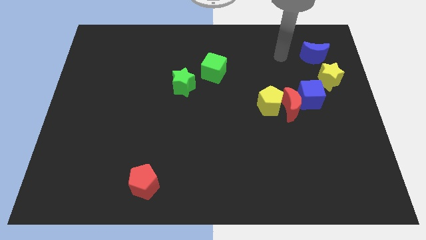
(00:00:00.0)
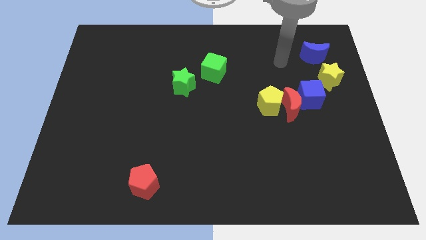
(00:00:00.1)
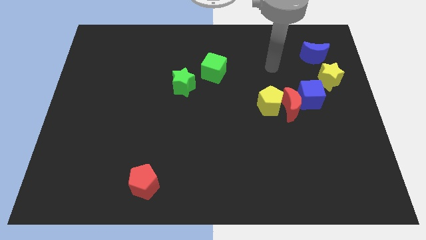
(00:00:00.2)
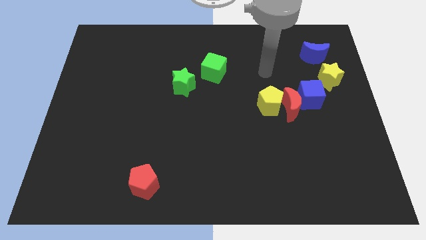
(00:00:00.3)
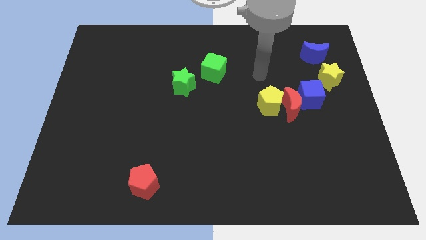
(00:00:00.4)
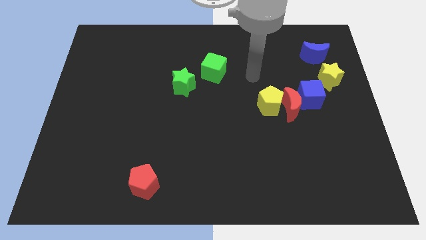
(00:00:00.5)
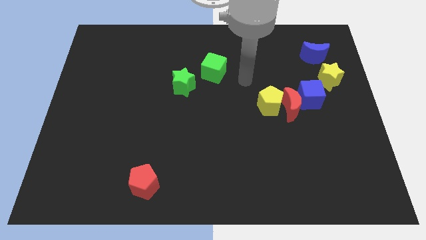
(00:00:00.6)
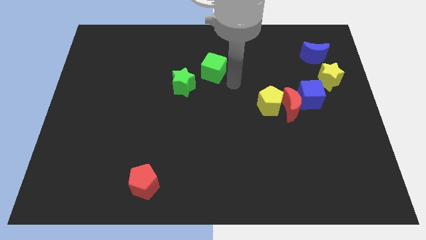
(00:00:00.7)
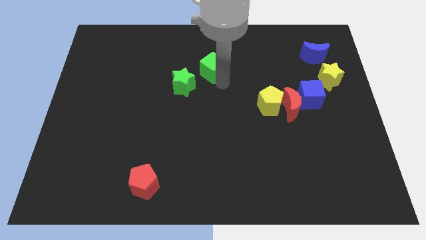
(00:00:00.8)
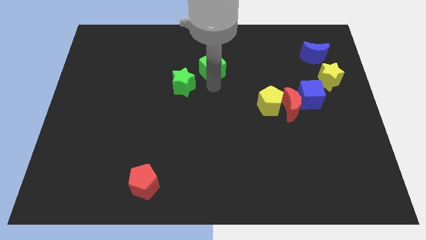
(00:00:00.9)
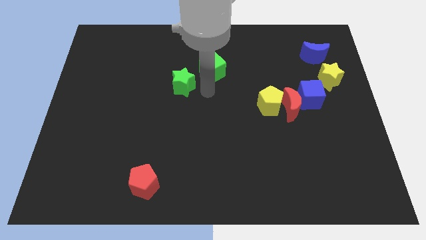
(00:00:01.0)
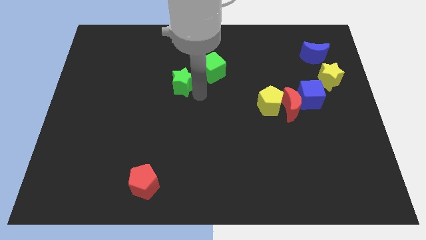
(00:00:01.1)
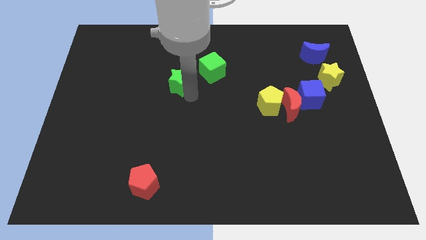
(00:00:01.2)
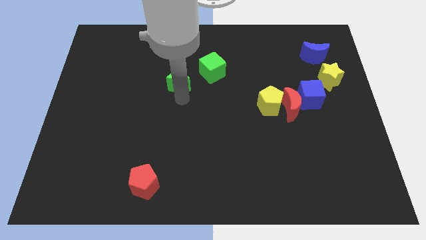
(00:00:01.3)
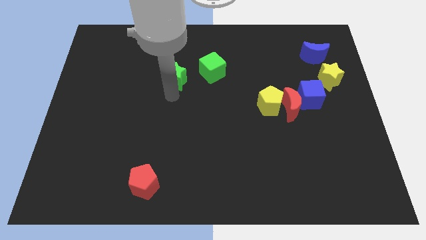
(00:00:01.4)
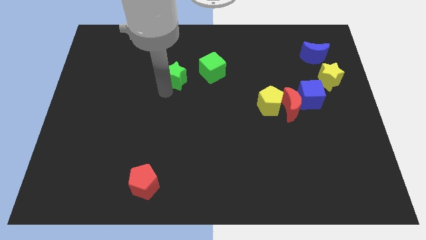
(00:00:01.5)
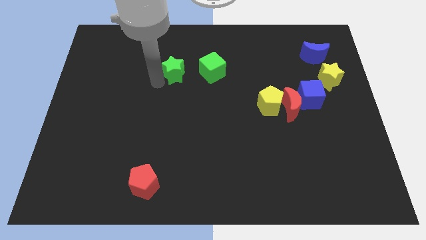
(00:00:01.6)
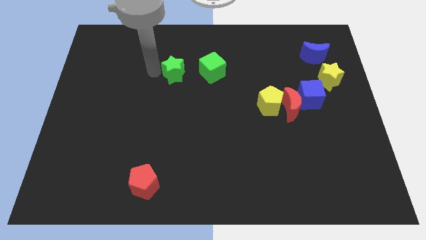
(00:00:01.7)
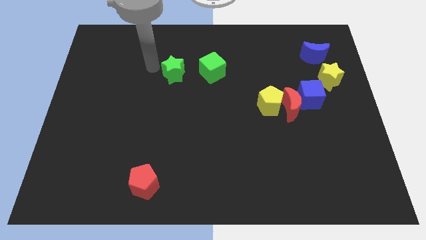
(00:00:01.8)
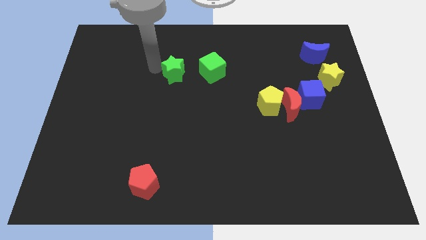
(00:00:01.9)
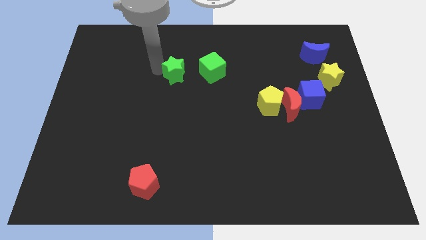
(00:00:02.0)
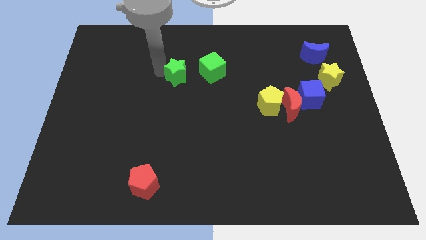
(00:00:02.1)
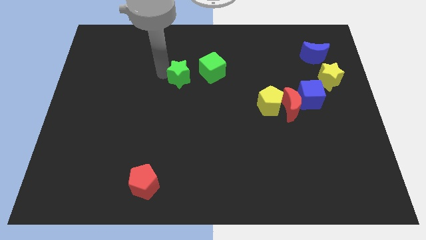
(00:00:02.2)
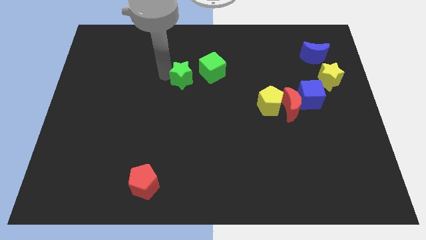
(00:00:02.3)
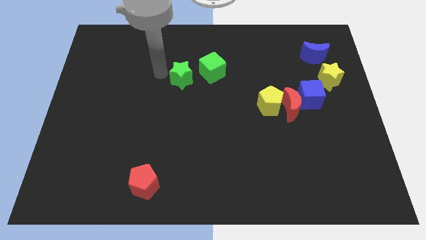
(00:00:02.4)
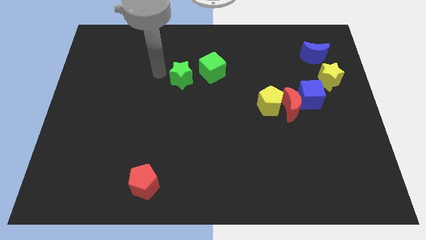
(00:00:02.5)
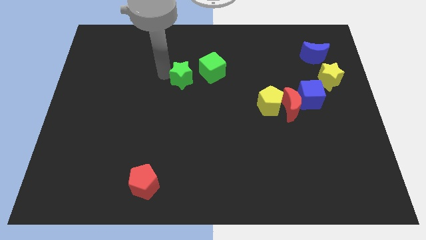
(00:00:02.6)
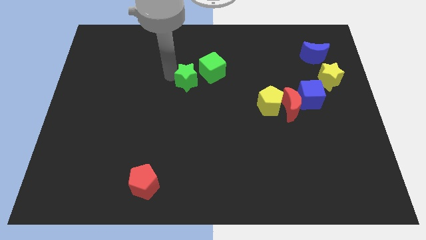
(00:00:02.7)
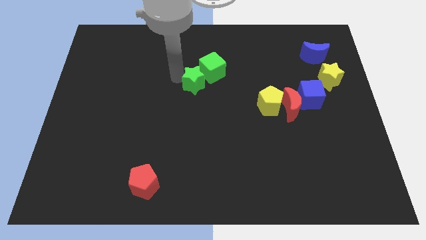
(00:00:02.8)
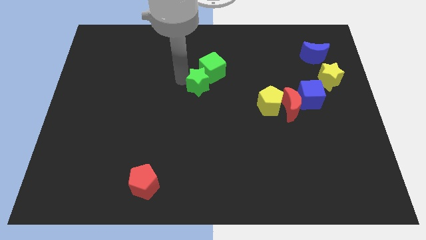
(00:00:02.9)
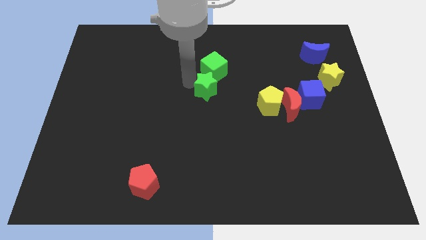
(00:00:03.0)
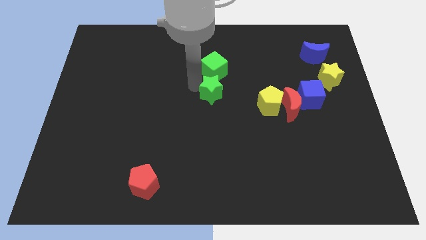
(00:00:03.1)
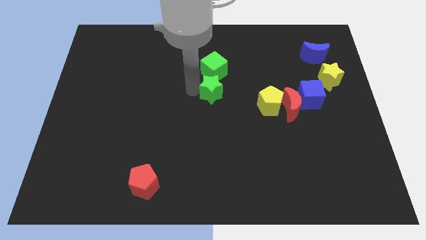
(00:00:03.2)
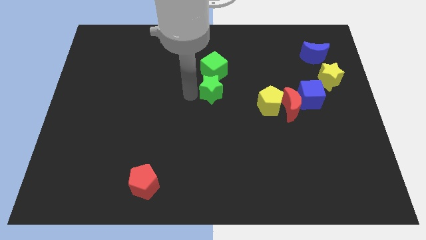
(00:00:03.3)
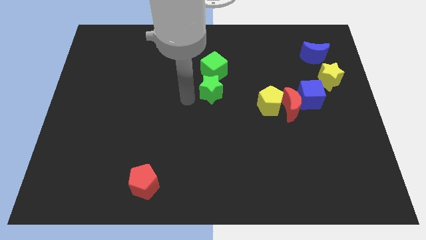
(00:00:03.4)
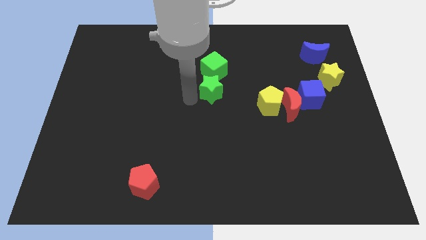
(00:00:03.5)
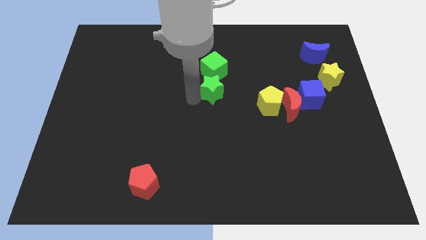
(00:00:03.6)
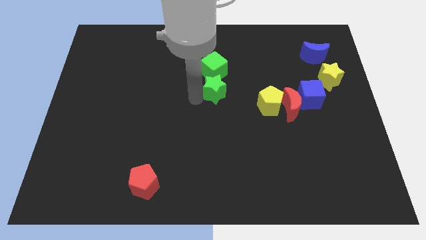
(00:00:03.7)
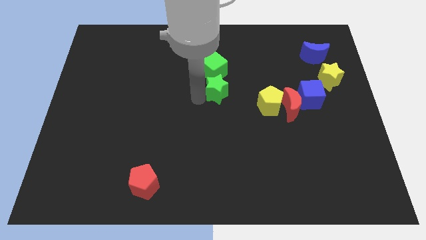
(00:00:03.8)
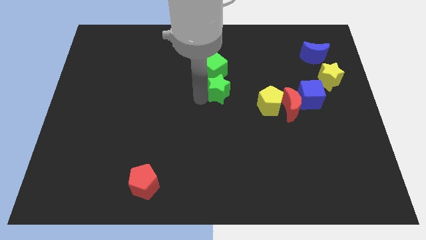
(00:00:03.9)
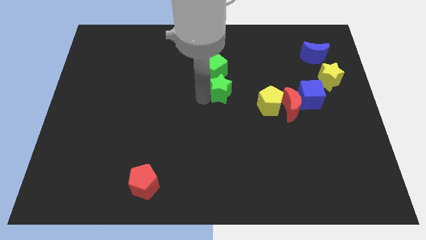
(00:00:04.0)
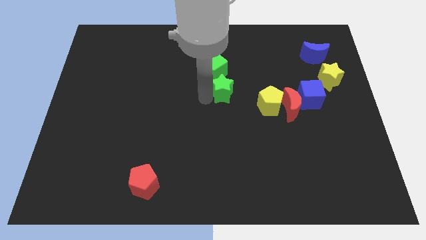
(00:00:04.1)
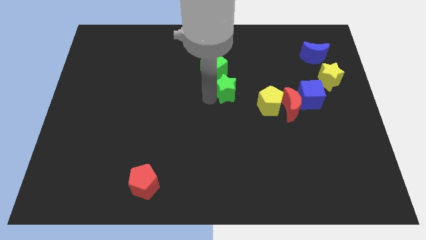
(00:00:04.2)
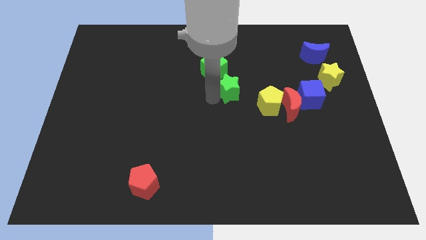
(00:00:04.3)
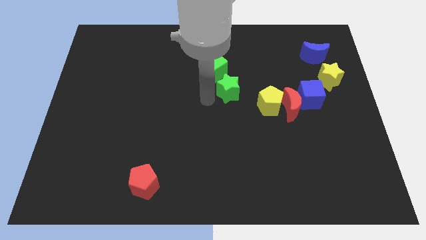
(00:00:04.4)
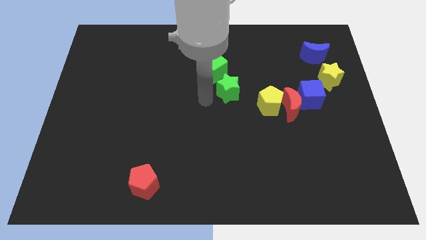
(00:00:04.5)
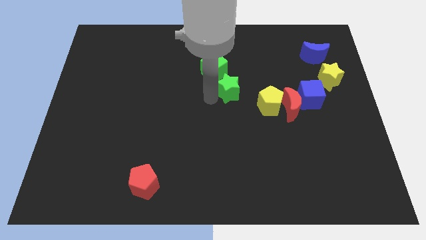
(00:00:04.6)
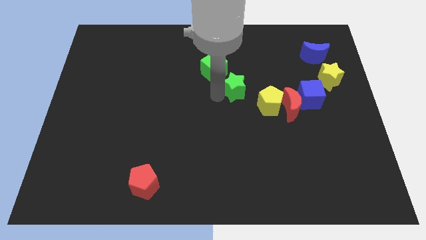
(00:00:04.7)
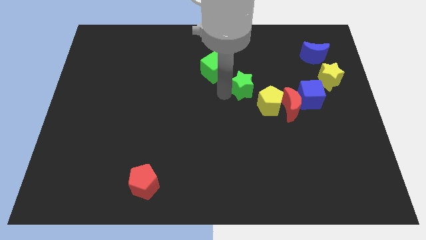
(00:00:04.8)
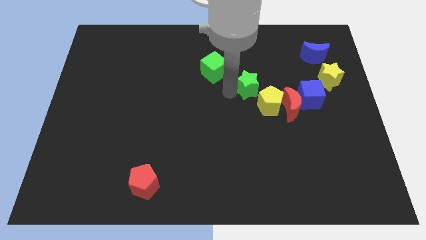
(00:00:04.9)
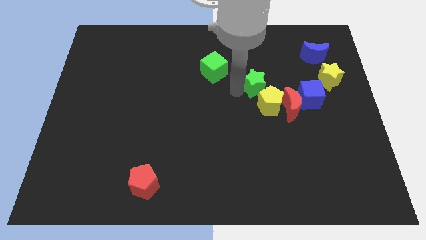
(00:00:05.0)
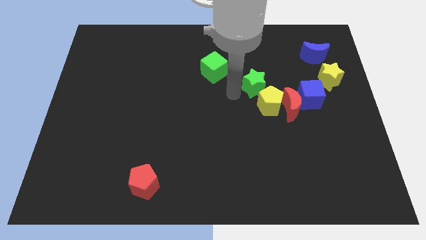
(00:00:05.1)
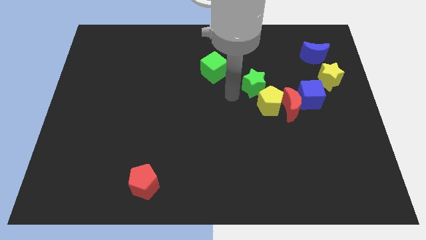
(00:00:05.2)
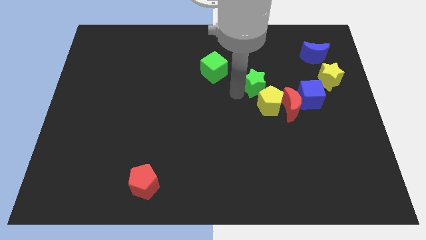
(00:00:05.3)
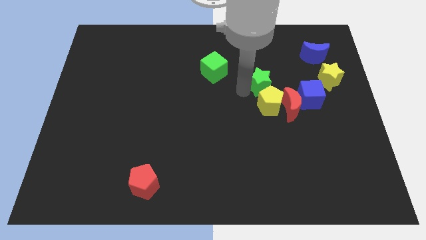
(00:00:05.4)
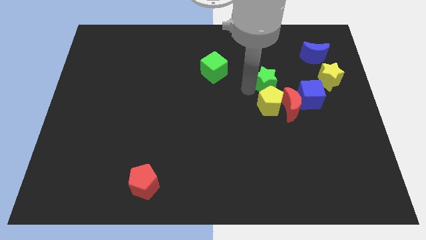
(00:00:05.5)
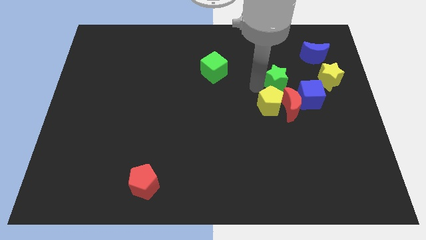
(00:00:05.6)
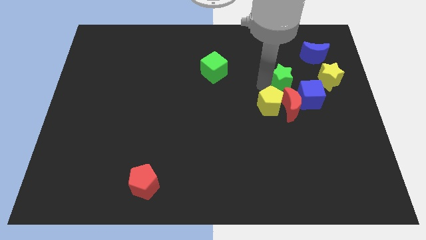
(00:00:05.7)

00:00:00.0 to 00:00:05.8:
move the green star to the bottom left side of the blue moon
